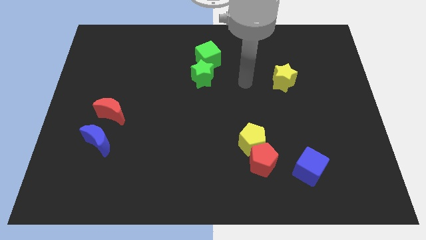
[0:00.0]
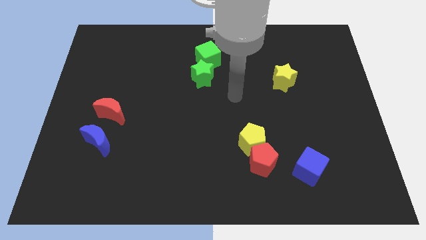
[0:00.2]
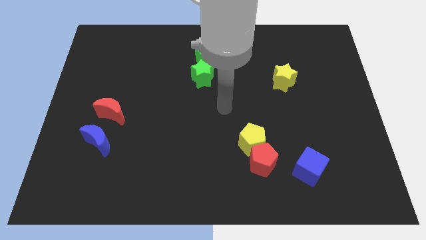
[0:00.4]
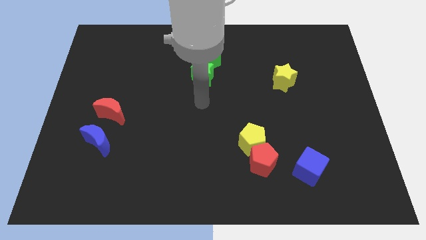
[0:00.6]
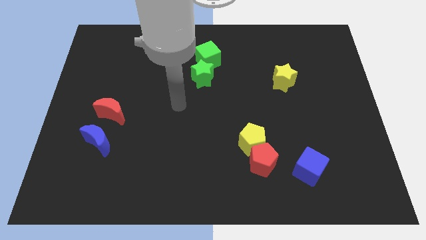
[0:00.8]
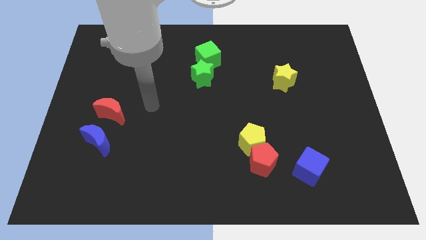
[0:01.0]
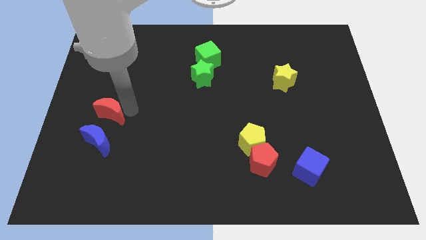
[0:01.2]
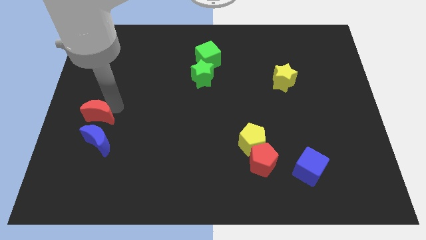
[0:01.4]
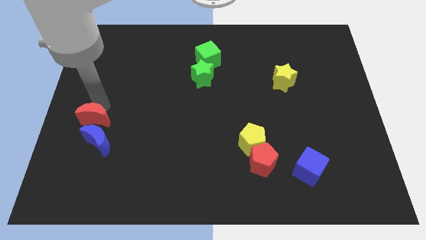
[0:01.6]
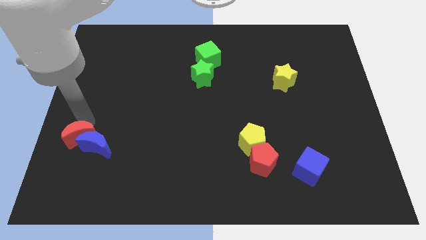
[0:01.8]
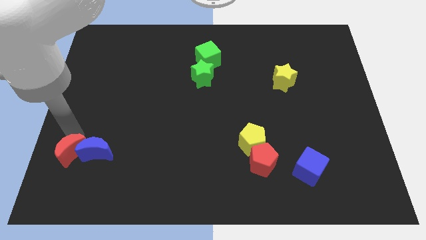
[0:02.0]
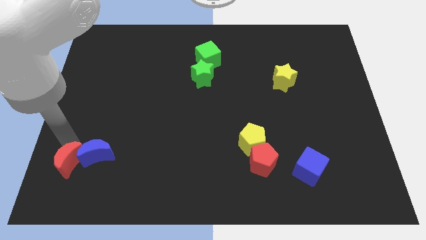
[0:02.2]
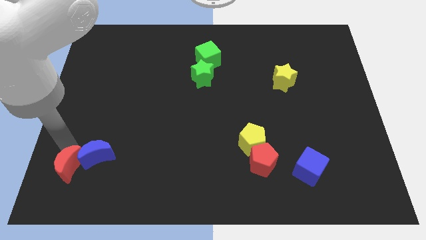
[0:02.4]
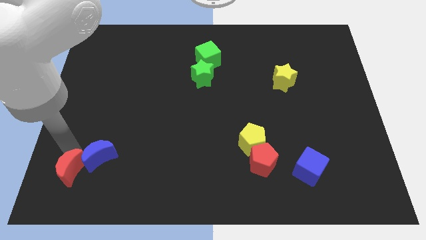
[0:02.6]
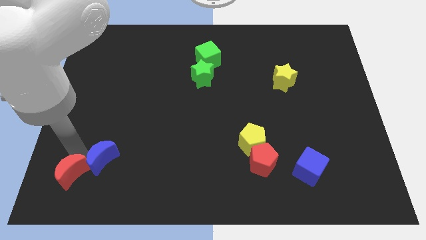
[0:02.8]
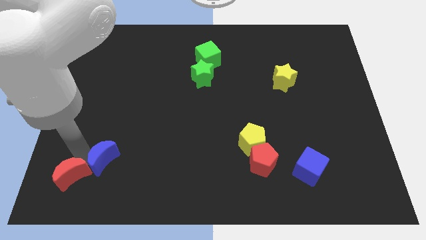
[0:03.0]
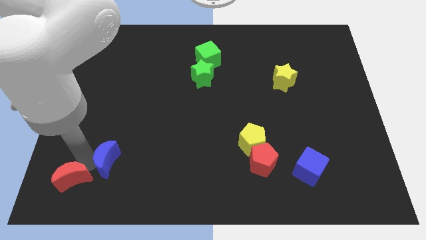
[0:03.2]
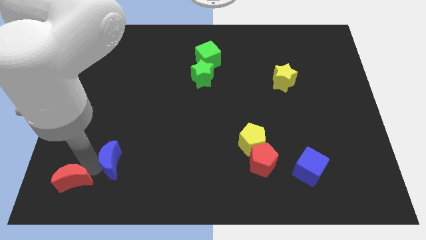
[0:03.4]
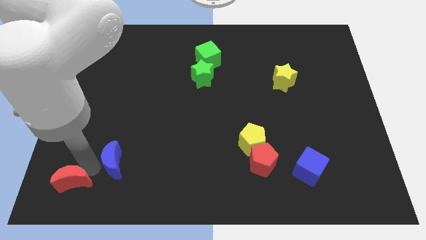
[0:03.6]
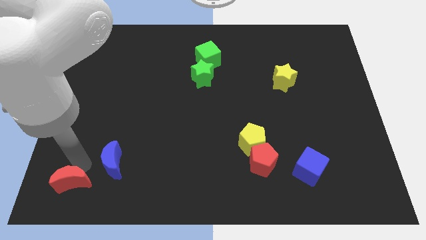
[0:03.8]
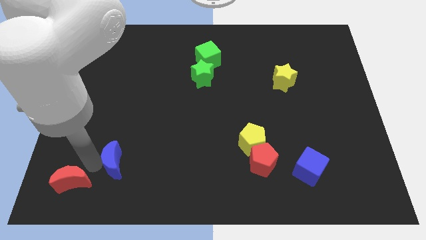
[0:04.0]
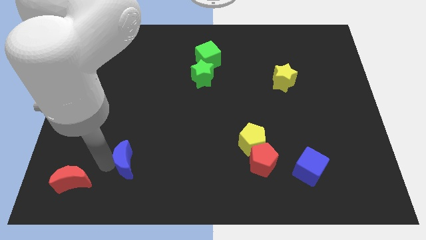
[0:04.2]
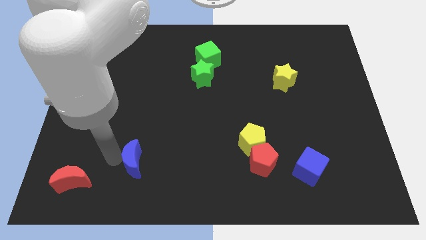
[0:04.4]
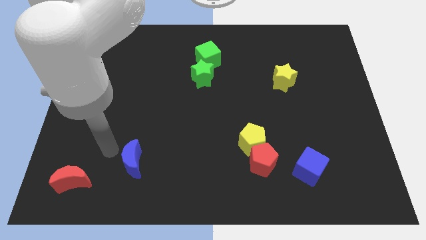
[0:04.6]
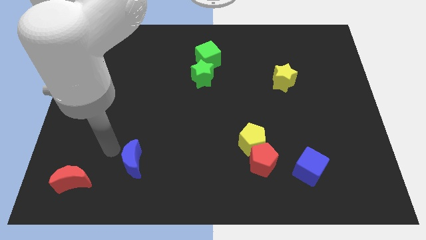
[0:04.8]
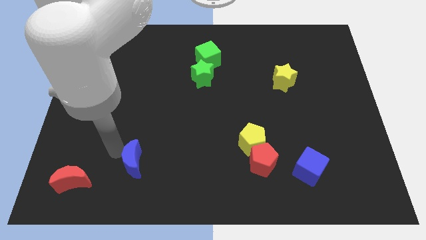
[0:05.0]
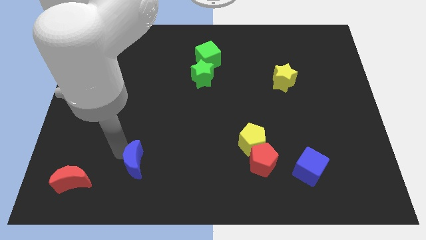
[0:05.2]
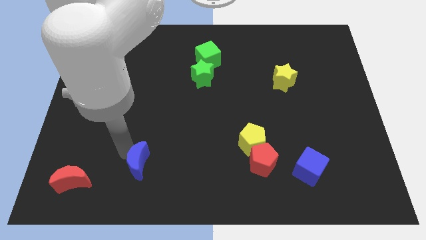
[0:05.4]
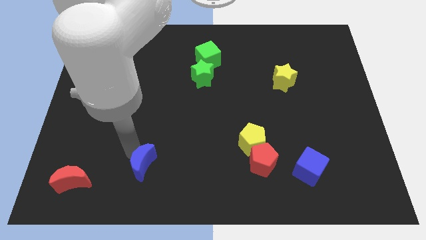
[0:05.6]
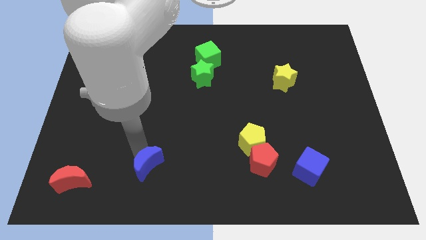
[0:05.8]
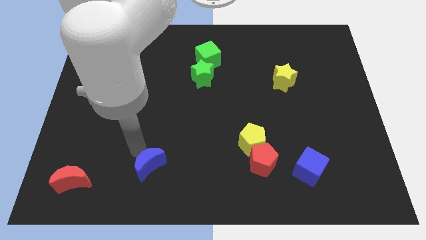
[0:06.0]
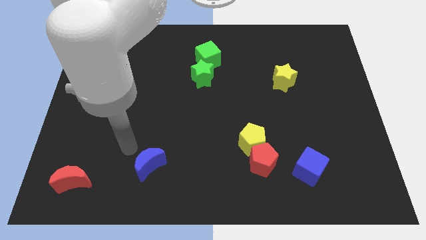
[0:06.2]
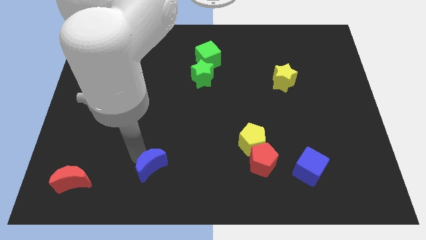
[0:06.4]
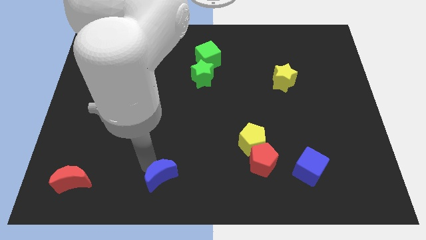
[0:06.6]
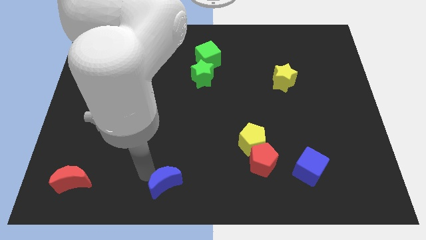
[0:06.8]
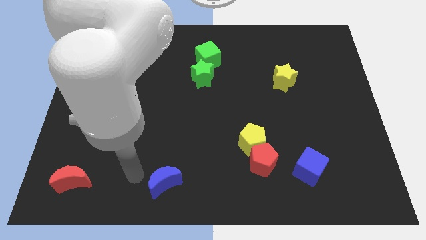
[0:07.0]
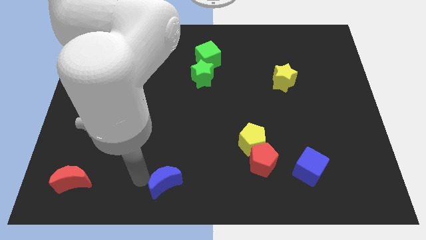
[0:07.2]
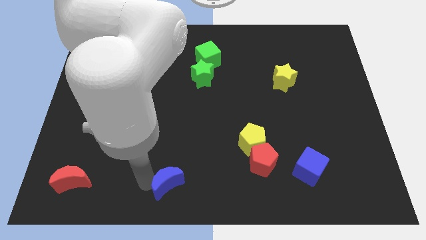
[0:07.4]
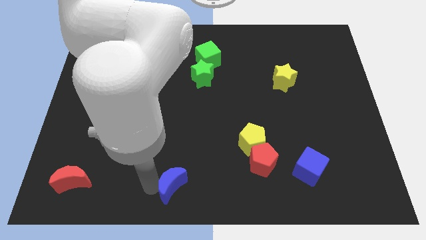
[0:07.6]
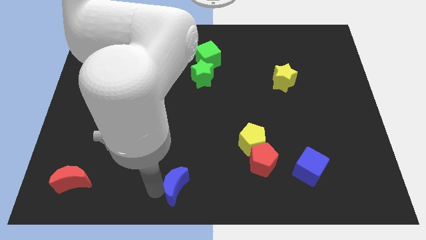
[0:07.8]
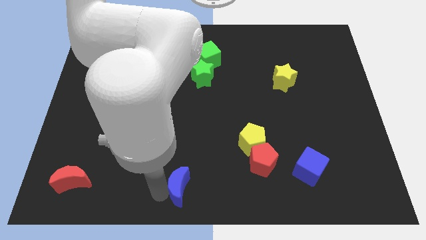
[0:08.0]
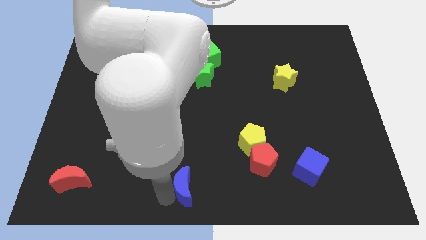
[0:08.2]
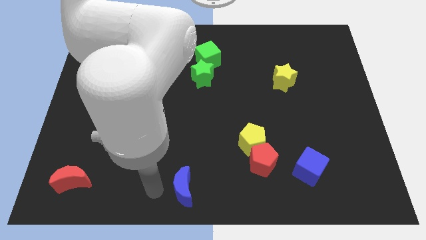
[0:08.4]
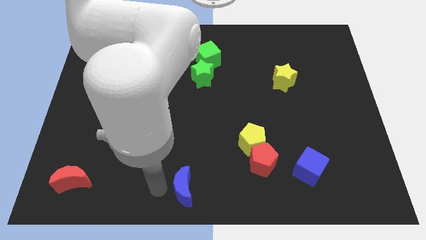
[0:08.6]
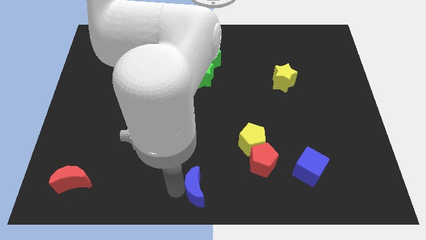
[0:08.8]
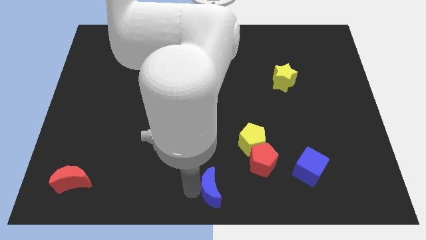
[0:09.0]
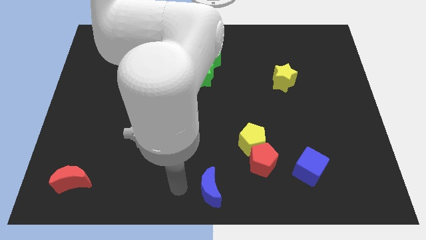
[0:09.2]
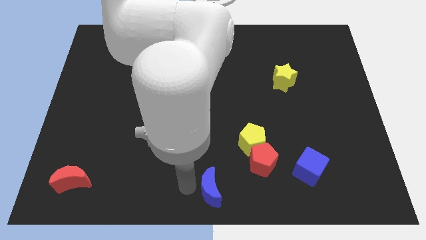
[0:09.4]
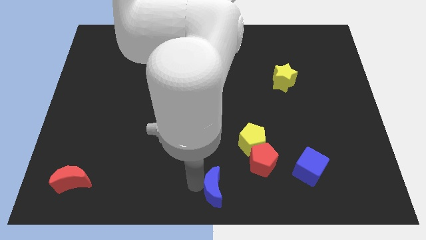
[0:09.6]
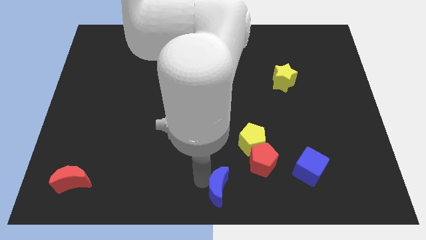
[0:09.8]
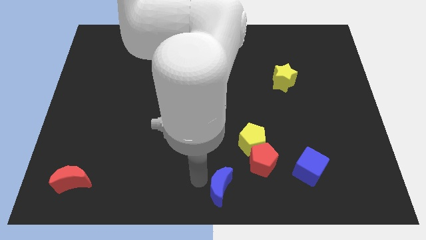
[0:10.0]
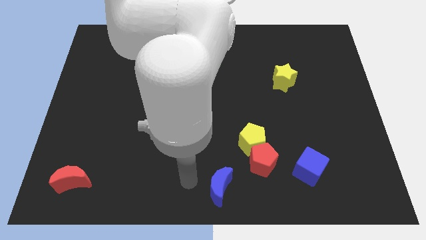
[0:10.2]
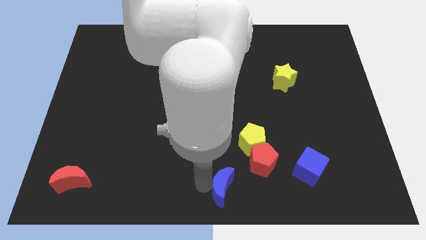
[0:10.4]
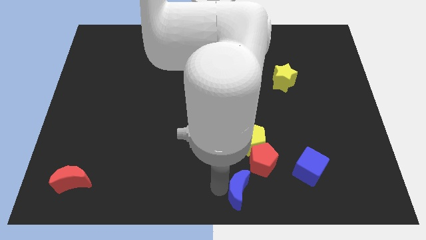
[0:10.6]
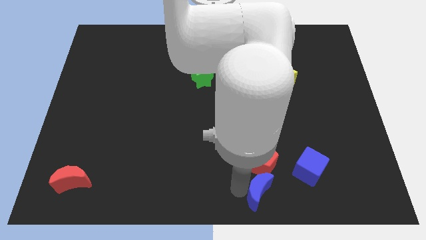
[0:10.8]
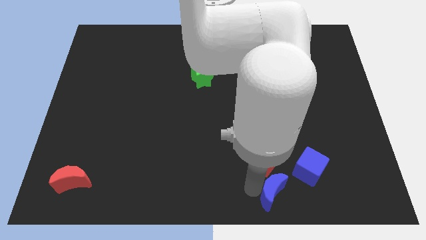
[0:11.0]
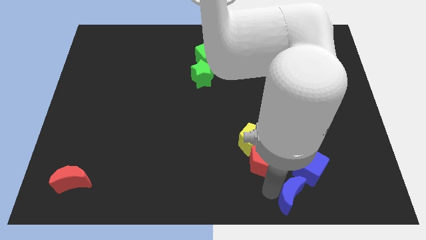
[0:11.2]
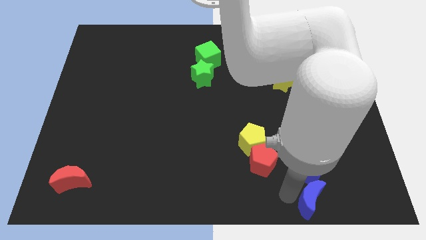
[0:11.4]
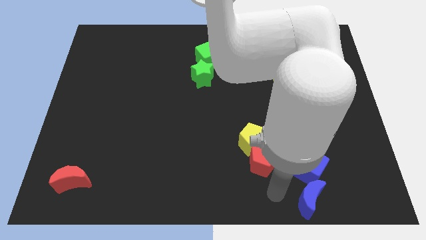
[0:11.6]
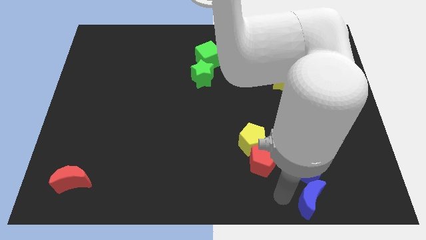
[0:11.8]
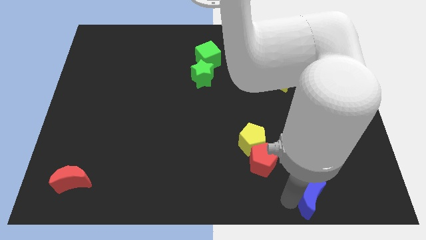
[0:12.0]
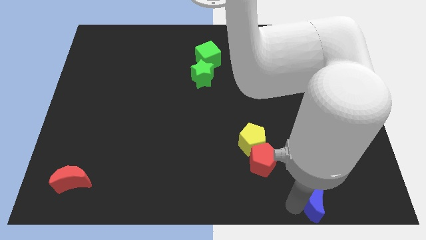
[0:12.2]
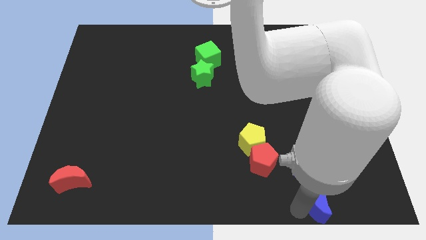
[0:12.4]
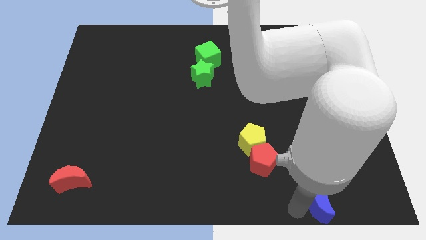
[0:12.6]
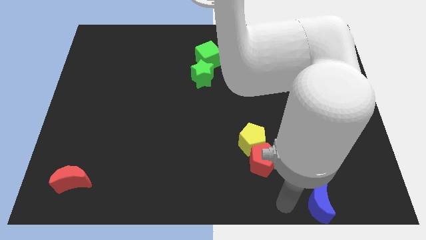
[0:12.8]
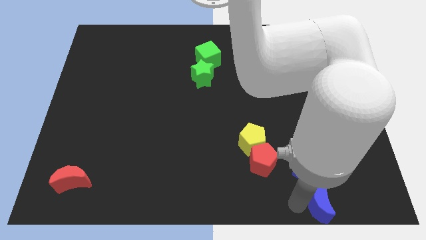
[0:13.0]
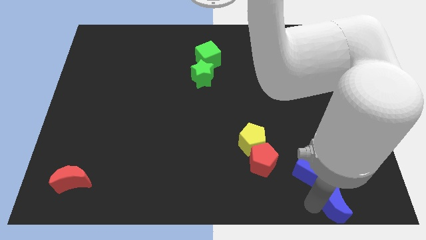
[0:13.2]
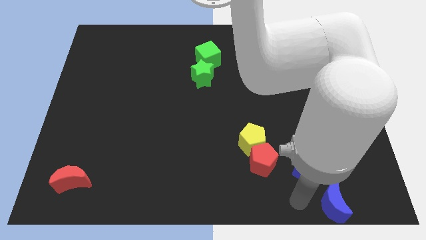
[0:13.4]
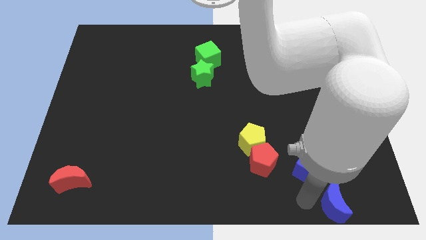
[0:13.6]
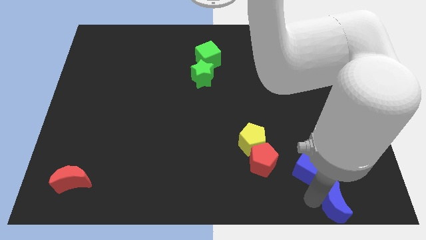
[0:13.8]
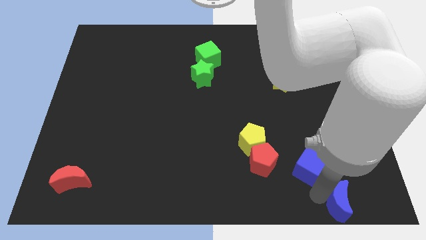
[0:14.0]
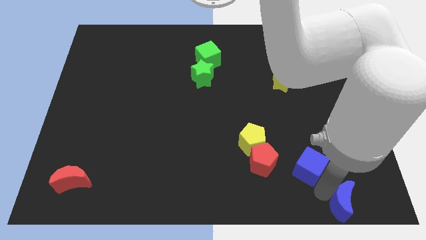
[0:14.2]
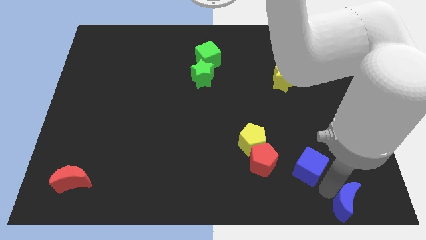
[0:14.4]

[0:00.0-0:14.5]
slide the blue moon to the lower right corner
